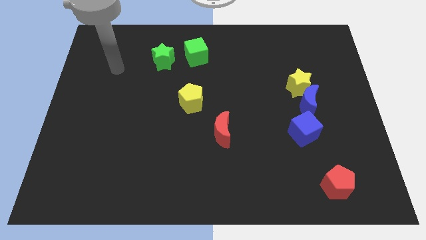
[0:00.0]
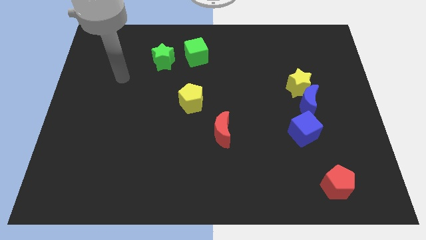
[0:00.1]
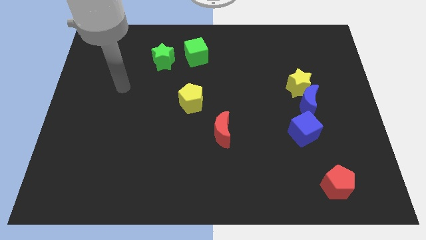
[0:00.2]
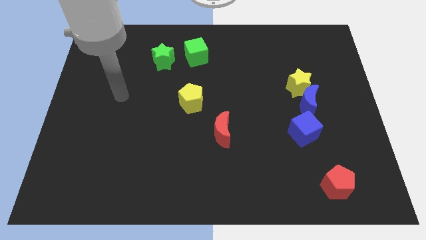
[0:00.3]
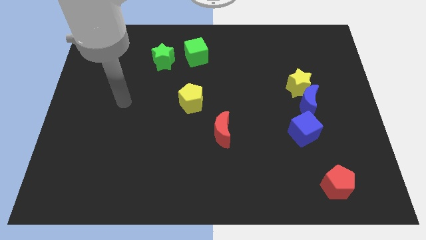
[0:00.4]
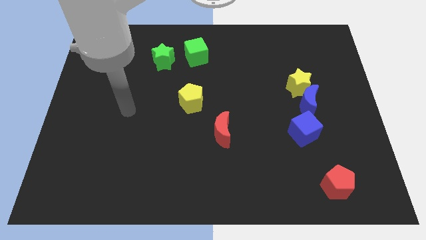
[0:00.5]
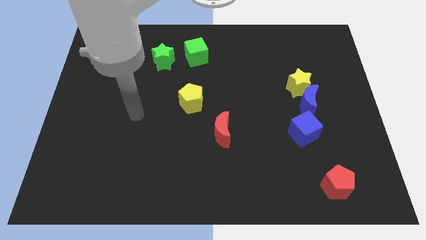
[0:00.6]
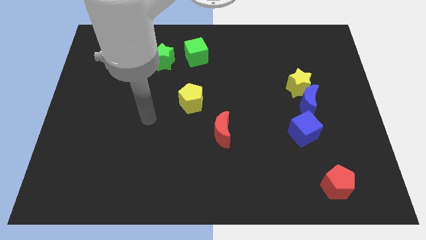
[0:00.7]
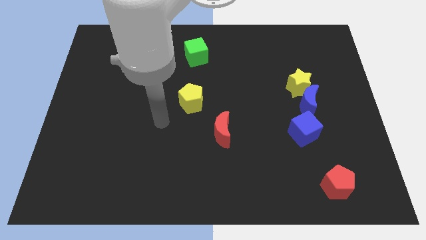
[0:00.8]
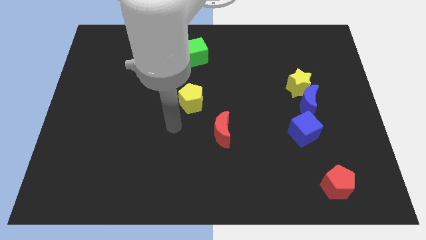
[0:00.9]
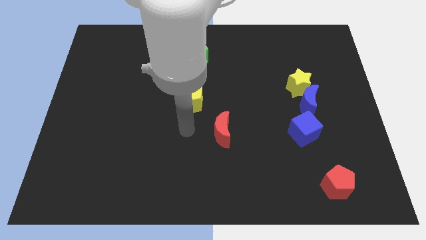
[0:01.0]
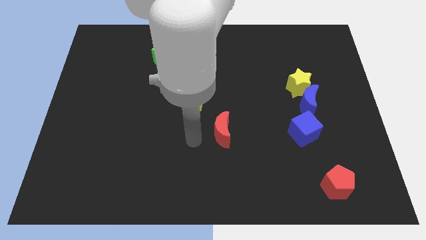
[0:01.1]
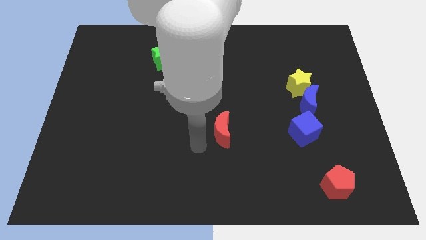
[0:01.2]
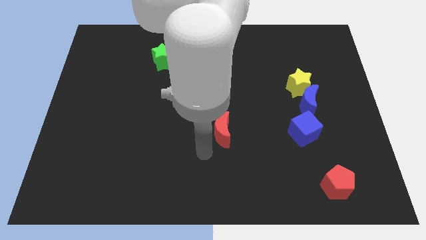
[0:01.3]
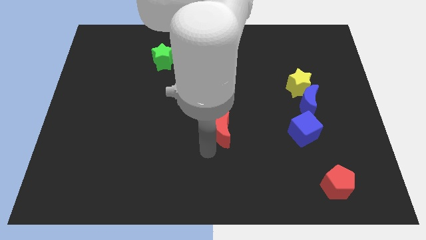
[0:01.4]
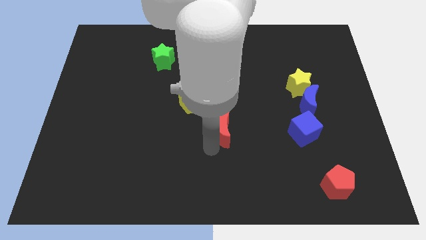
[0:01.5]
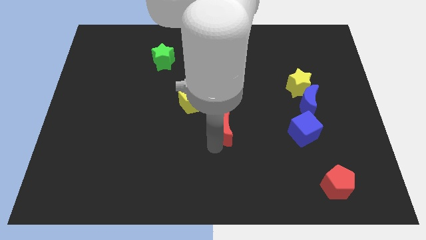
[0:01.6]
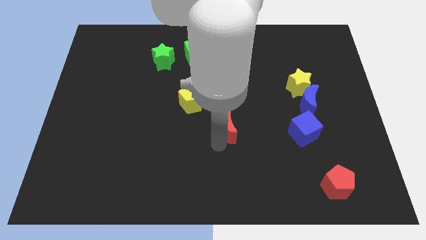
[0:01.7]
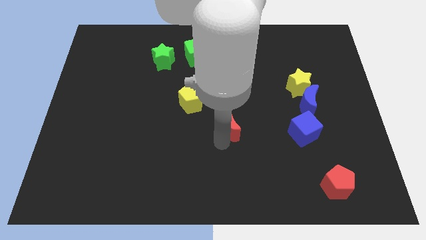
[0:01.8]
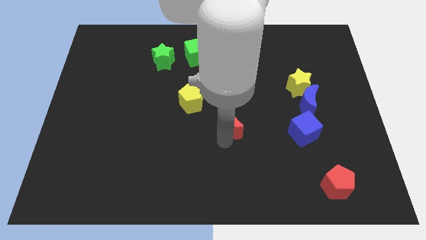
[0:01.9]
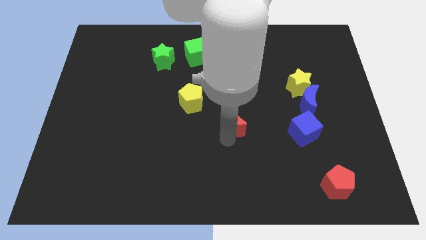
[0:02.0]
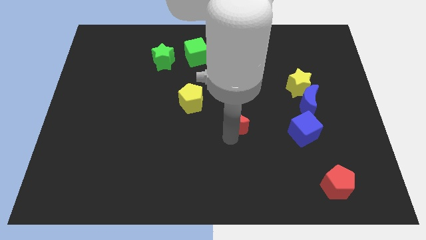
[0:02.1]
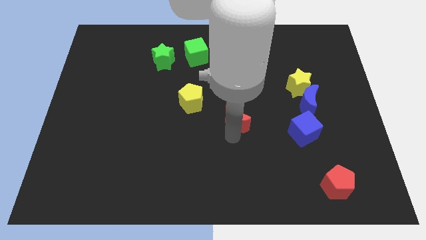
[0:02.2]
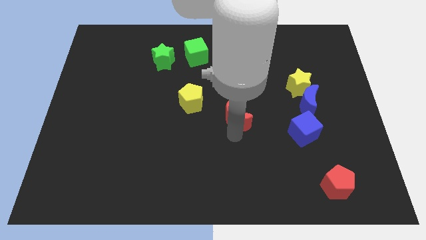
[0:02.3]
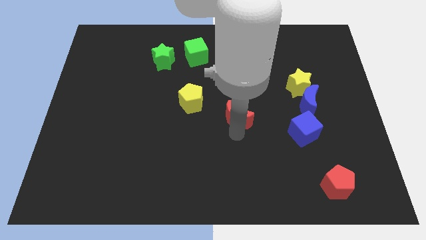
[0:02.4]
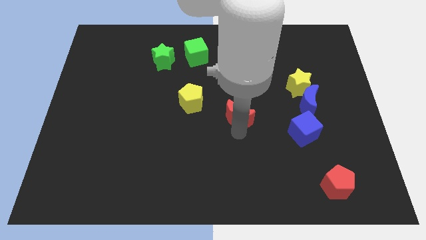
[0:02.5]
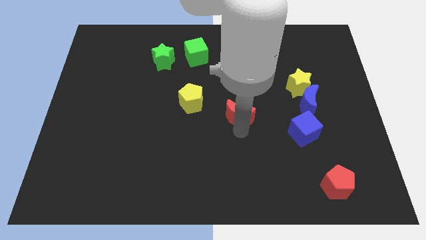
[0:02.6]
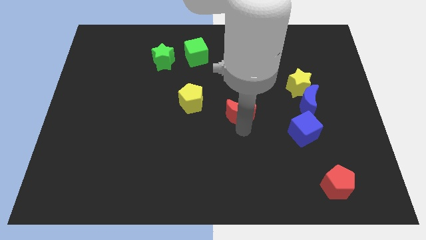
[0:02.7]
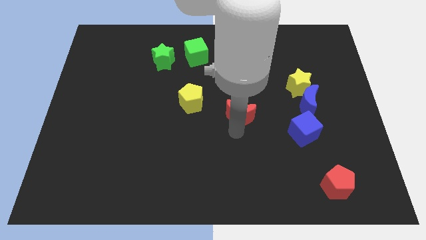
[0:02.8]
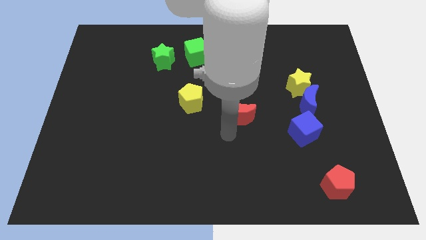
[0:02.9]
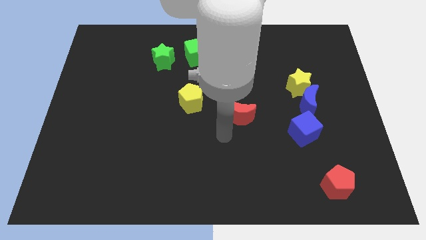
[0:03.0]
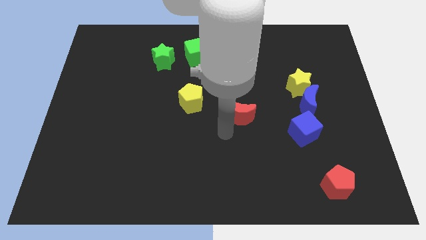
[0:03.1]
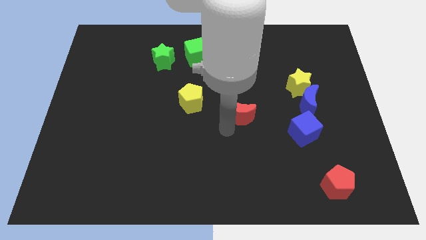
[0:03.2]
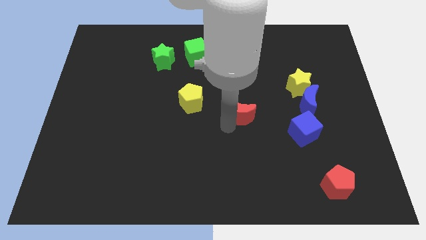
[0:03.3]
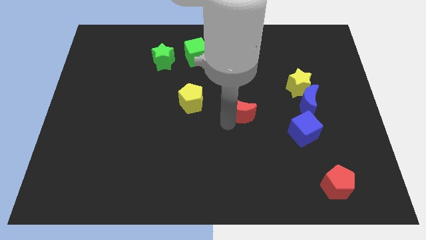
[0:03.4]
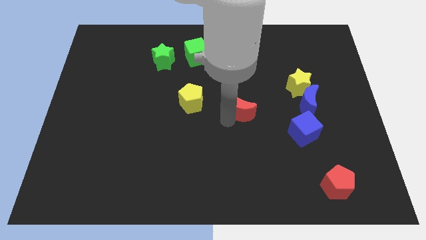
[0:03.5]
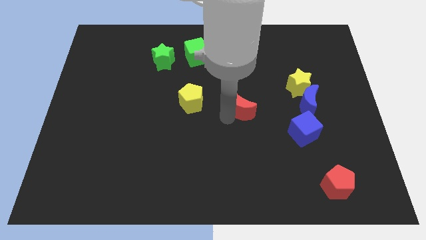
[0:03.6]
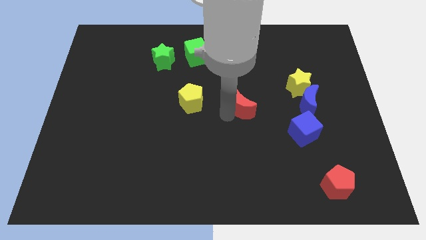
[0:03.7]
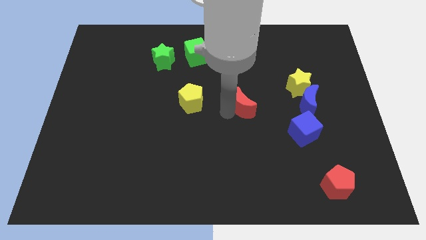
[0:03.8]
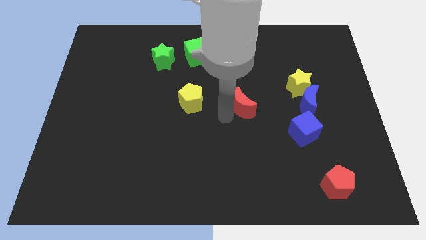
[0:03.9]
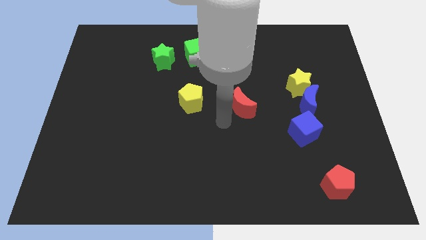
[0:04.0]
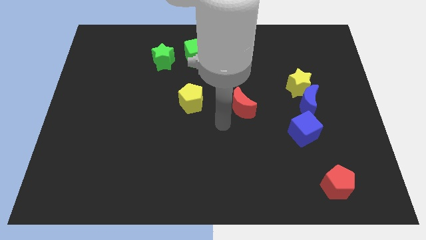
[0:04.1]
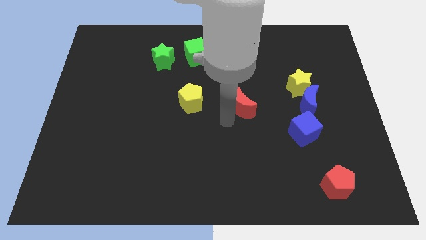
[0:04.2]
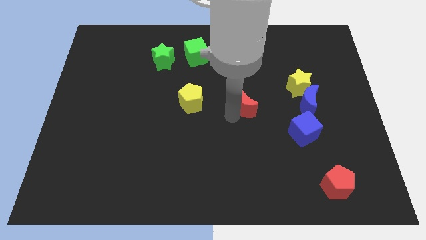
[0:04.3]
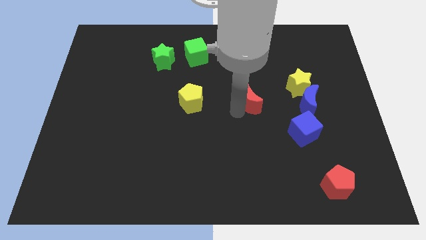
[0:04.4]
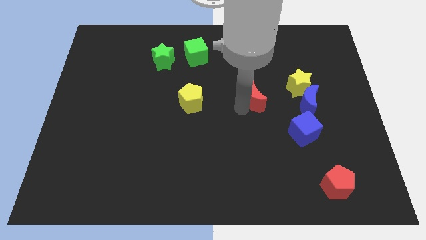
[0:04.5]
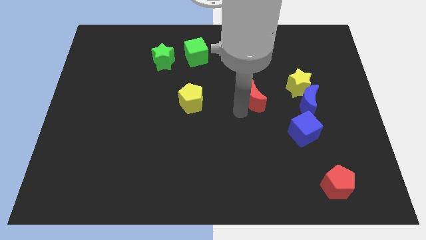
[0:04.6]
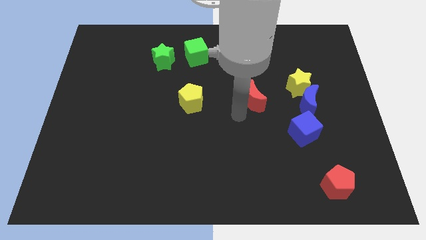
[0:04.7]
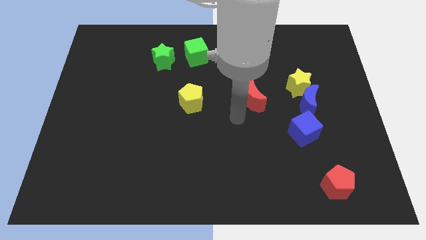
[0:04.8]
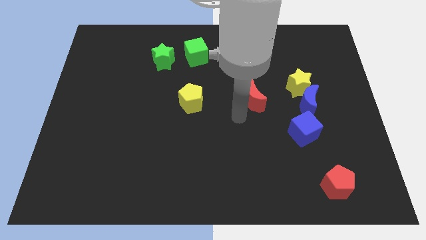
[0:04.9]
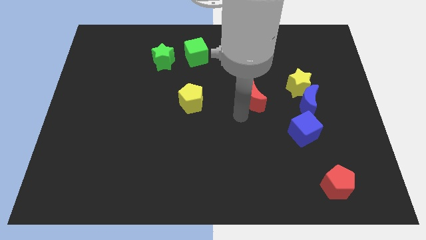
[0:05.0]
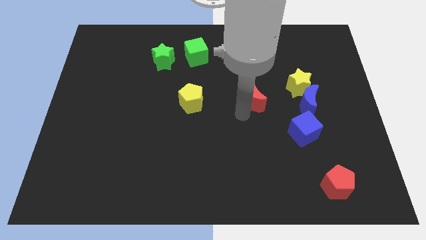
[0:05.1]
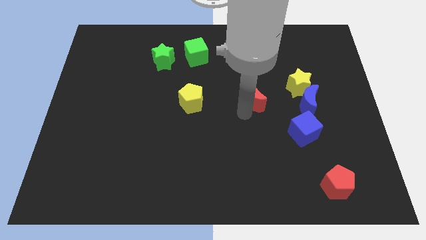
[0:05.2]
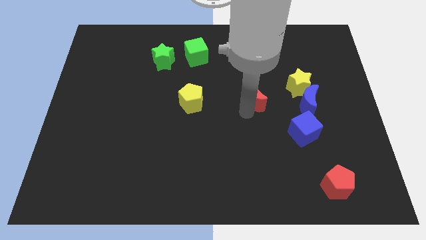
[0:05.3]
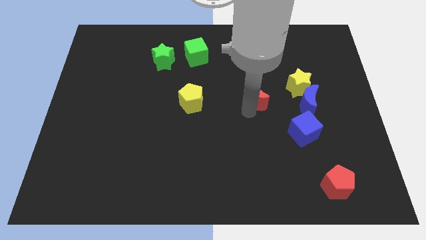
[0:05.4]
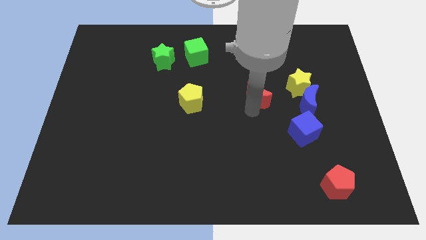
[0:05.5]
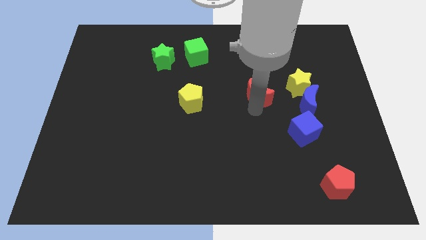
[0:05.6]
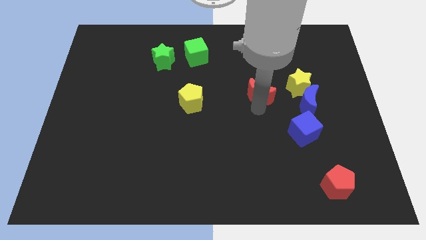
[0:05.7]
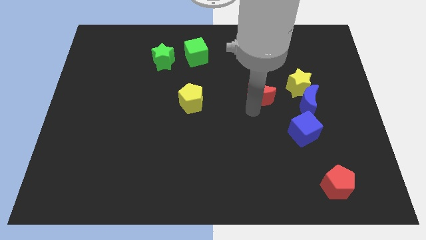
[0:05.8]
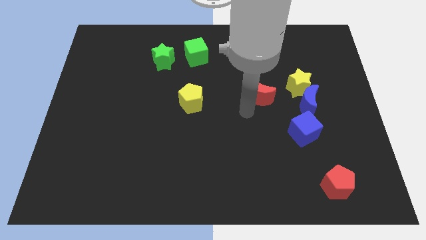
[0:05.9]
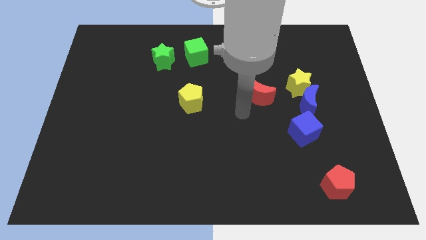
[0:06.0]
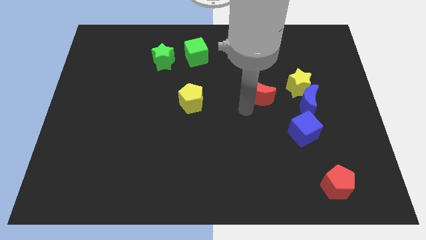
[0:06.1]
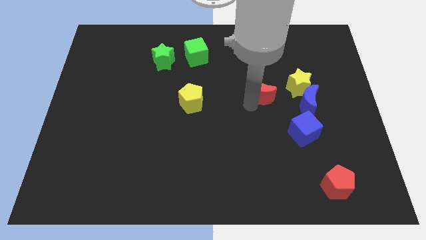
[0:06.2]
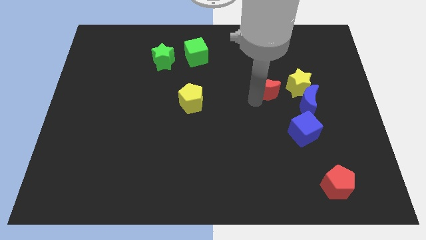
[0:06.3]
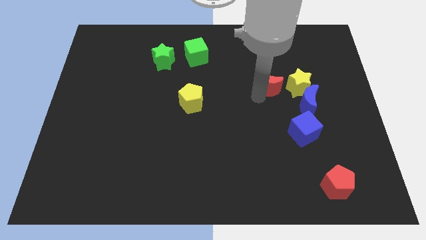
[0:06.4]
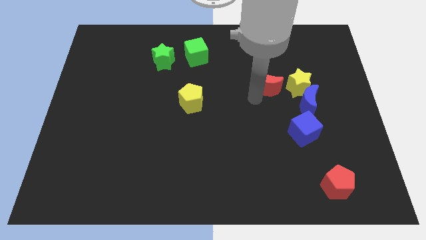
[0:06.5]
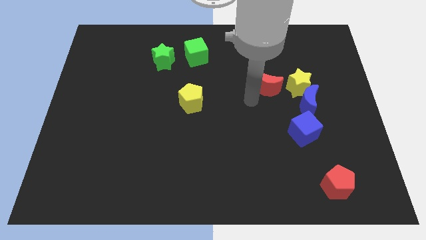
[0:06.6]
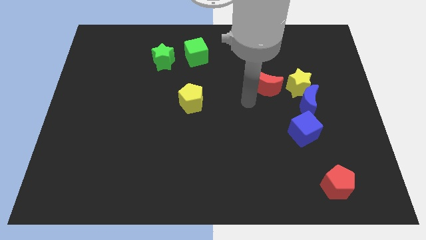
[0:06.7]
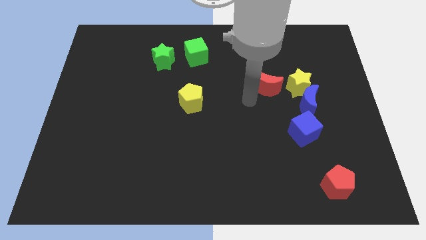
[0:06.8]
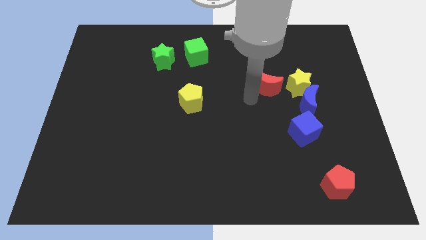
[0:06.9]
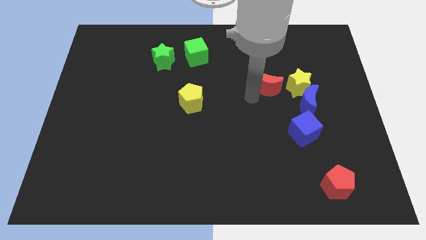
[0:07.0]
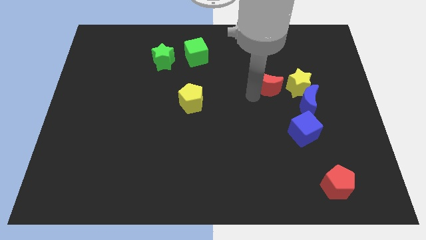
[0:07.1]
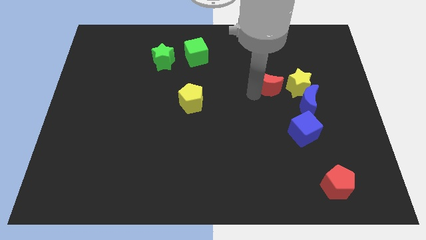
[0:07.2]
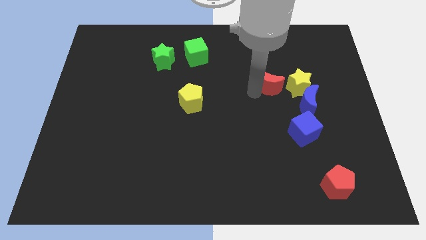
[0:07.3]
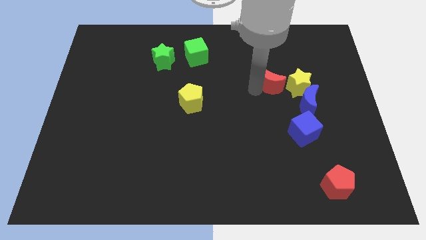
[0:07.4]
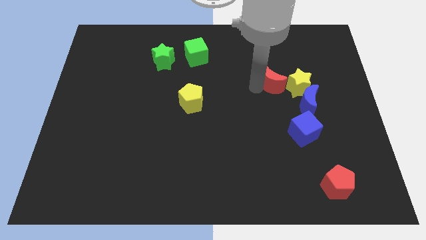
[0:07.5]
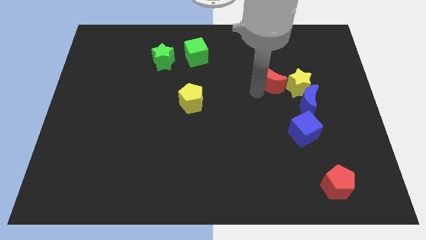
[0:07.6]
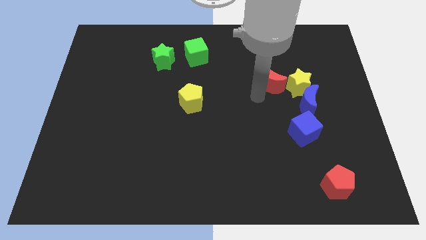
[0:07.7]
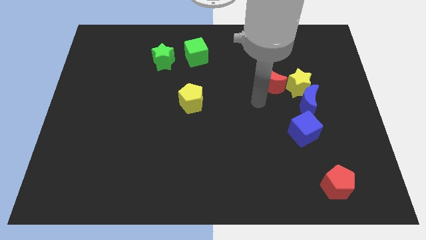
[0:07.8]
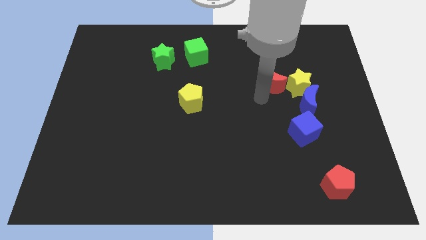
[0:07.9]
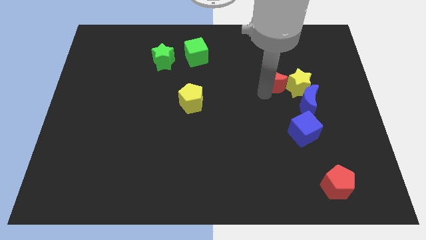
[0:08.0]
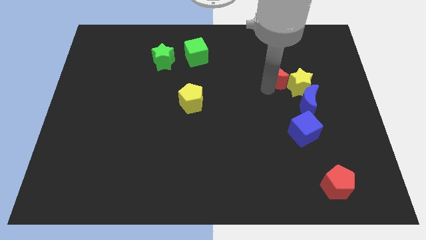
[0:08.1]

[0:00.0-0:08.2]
move the red moon upwards and then right
